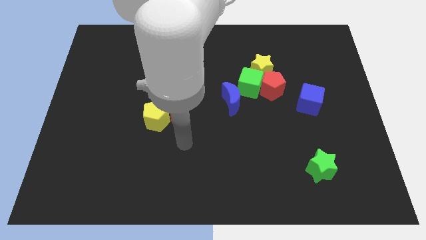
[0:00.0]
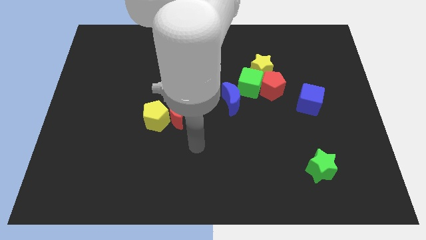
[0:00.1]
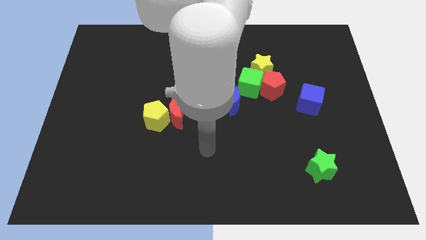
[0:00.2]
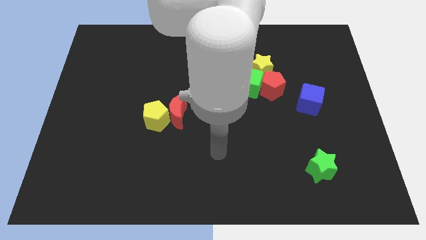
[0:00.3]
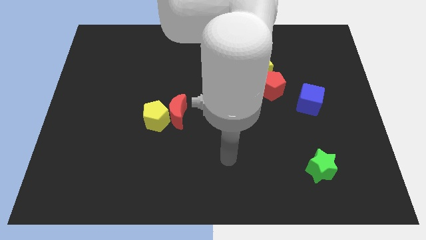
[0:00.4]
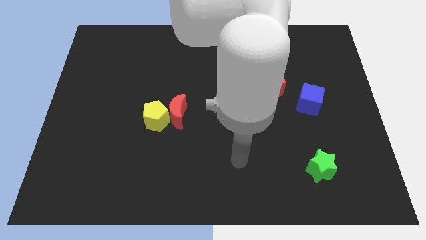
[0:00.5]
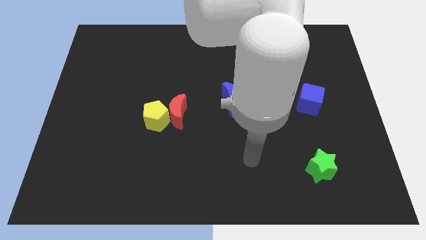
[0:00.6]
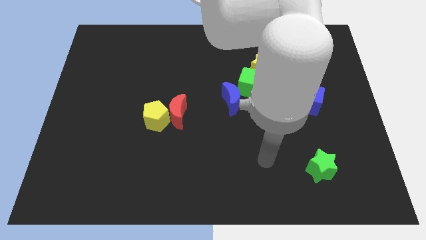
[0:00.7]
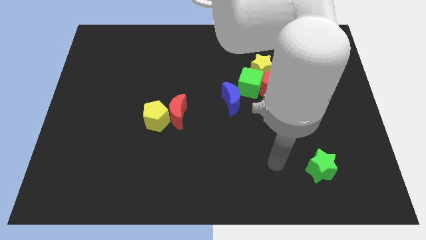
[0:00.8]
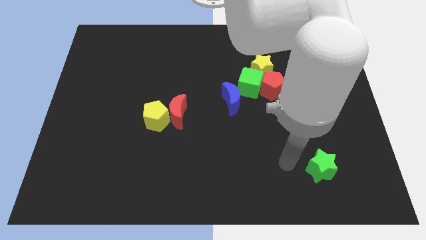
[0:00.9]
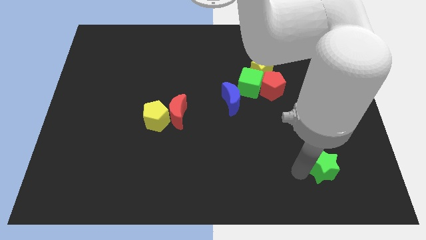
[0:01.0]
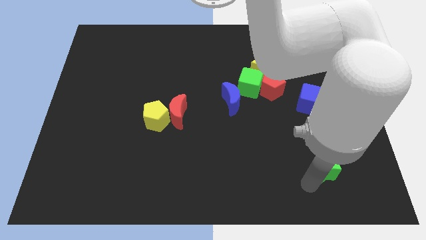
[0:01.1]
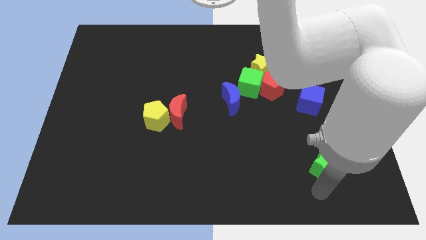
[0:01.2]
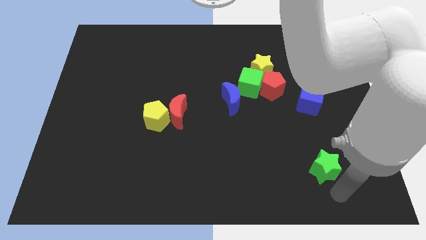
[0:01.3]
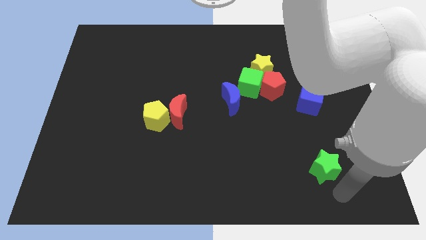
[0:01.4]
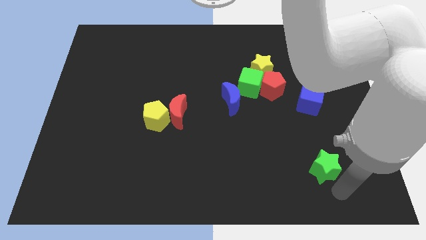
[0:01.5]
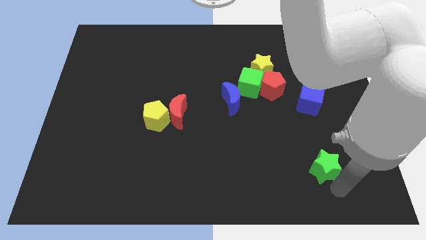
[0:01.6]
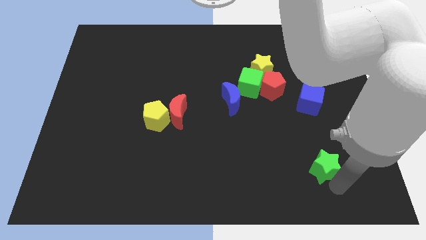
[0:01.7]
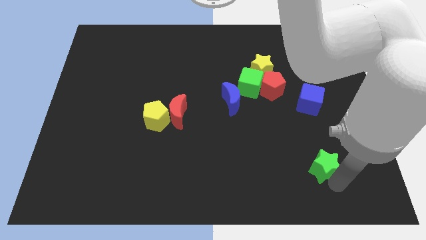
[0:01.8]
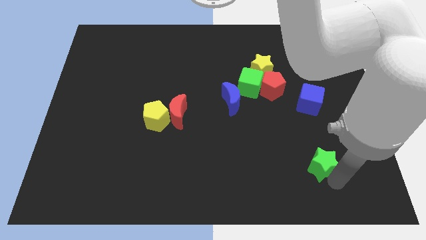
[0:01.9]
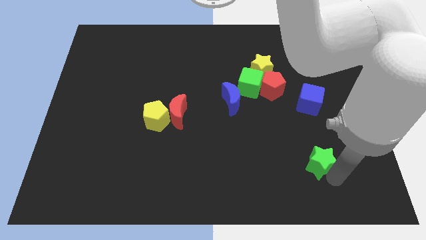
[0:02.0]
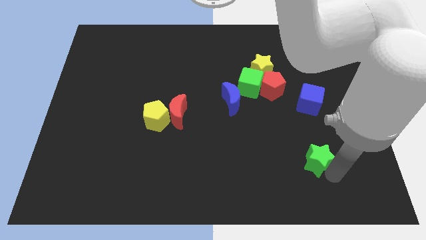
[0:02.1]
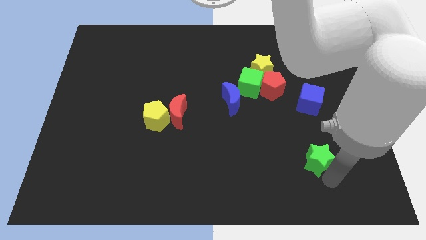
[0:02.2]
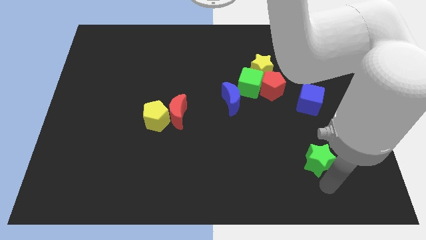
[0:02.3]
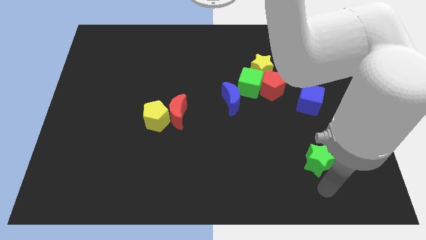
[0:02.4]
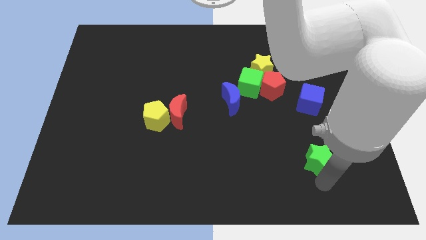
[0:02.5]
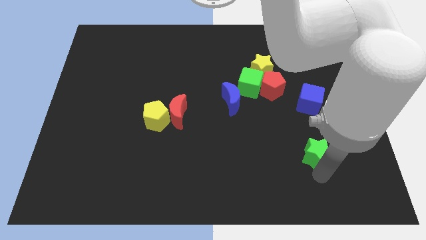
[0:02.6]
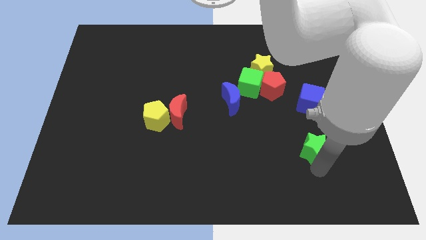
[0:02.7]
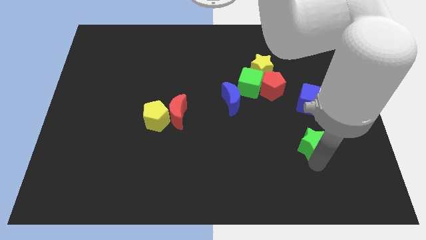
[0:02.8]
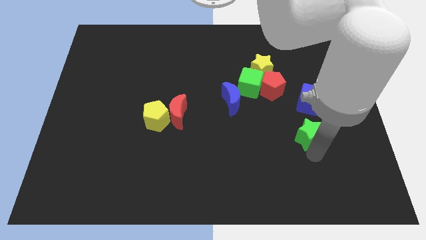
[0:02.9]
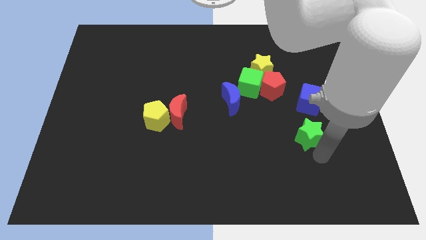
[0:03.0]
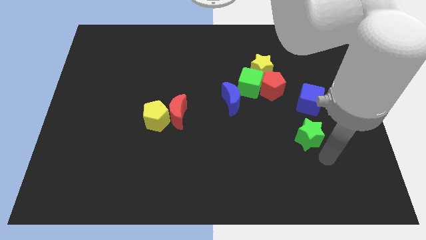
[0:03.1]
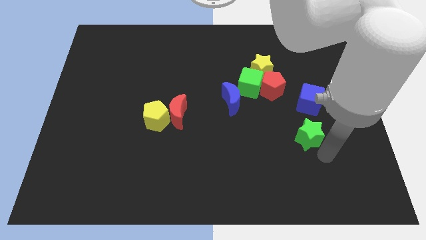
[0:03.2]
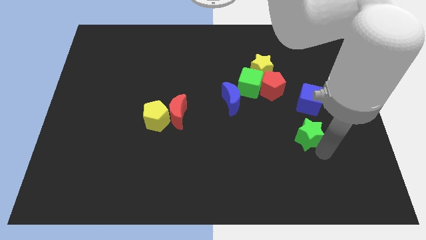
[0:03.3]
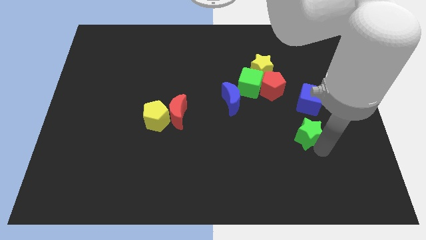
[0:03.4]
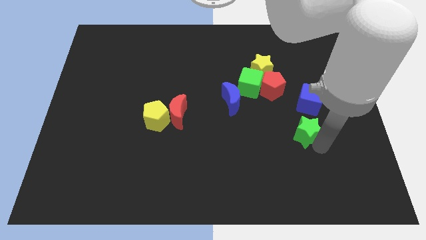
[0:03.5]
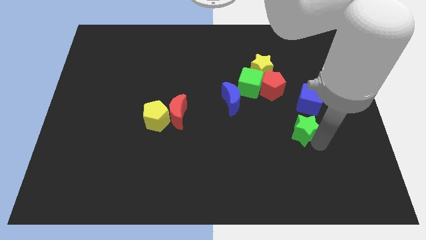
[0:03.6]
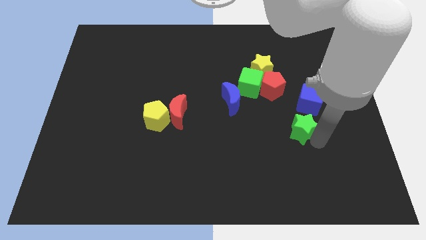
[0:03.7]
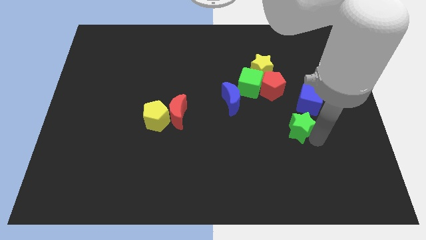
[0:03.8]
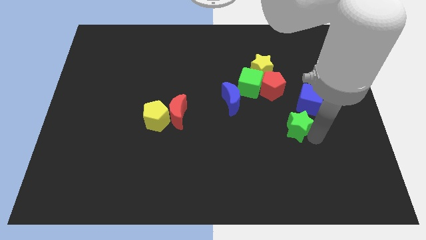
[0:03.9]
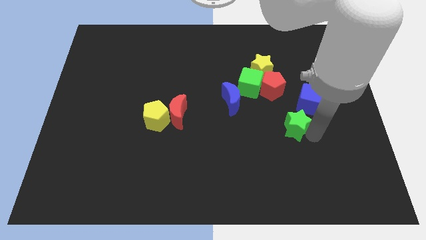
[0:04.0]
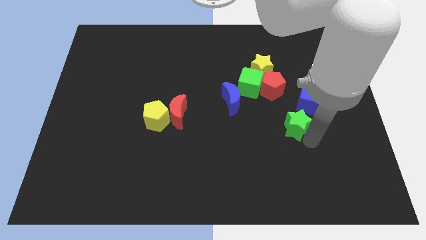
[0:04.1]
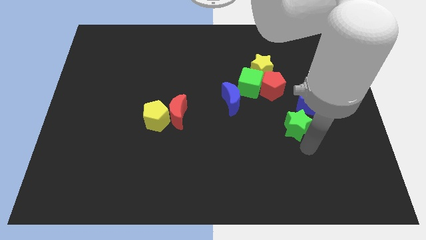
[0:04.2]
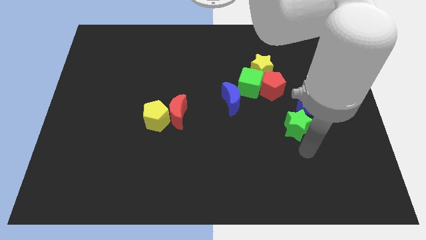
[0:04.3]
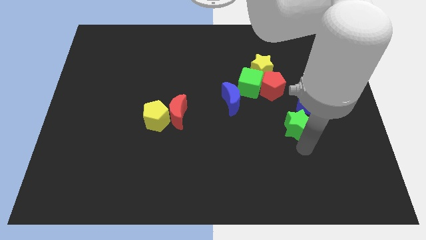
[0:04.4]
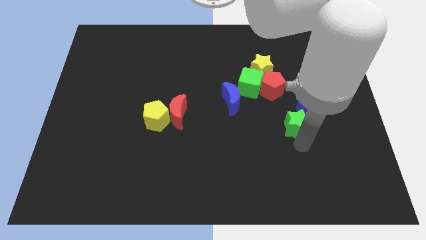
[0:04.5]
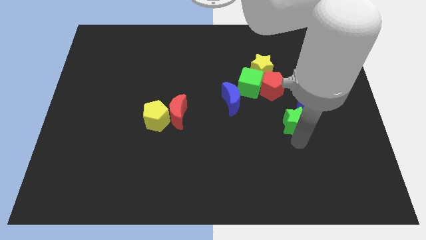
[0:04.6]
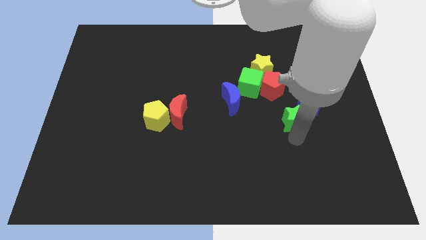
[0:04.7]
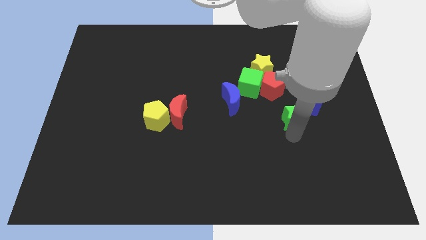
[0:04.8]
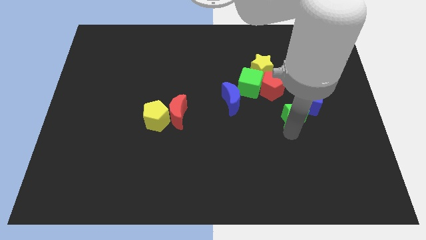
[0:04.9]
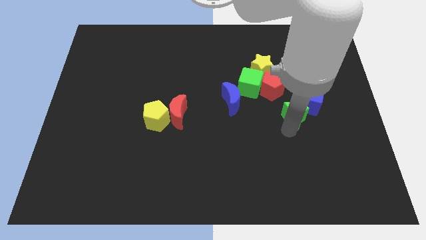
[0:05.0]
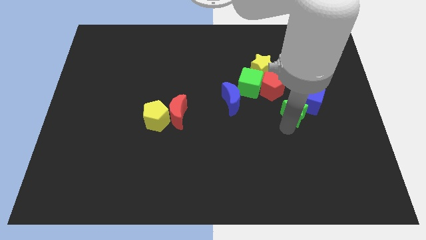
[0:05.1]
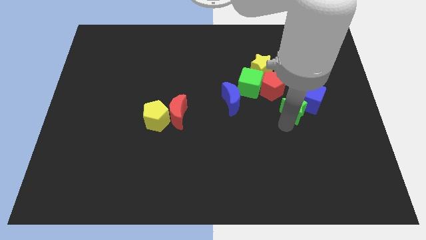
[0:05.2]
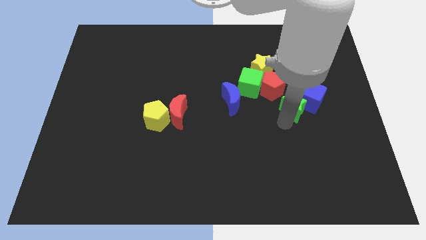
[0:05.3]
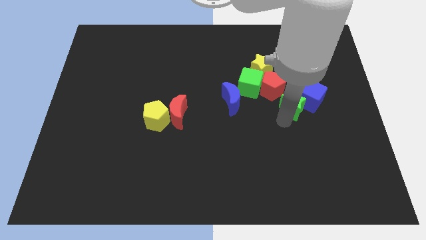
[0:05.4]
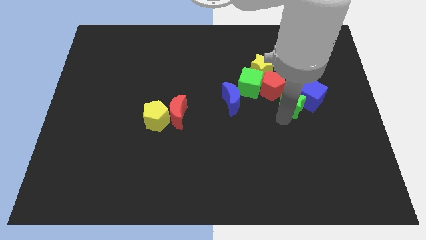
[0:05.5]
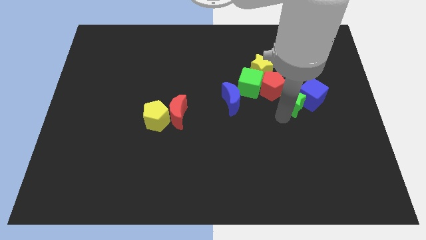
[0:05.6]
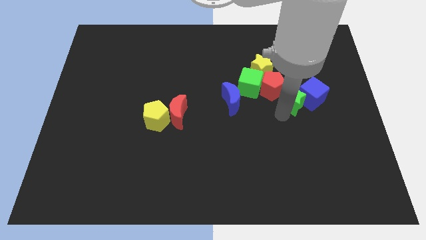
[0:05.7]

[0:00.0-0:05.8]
slide the green star to the red pentagon

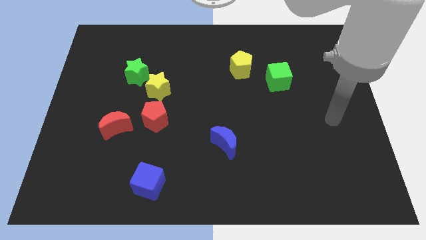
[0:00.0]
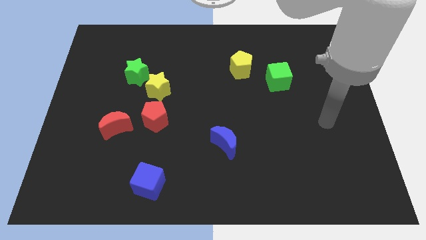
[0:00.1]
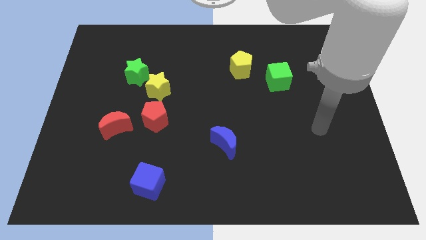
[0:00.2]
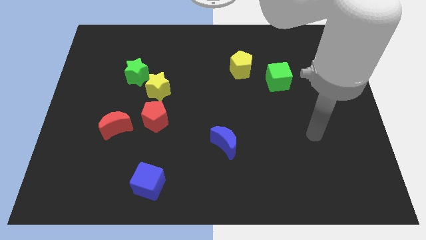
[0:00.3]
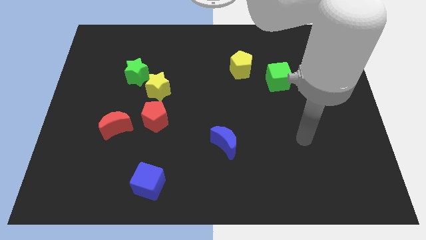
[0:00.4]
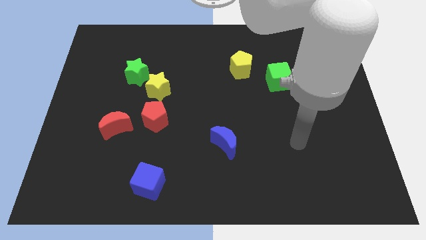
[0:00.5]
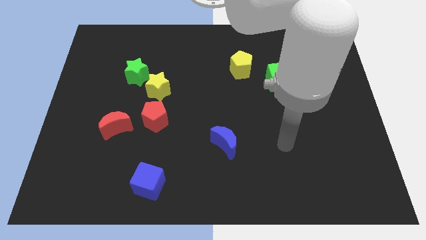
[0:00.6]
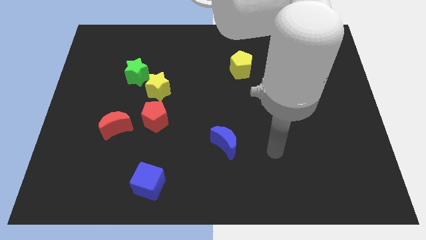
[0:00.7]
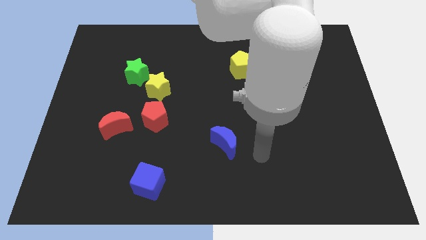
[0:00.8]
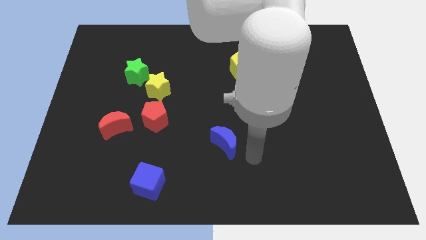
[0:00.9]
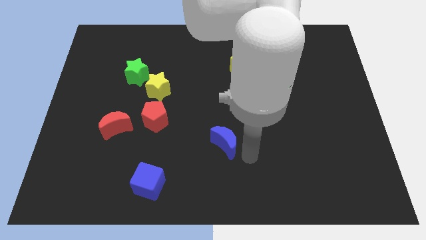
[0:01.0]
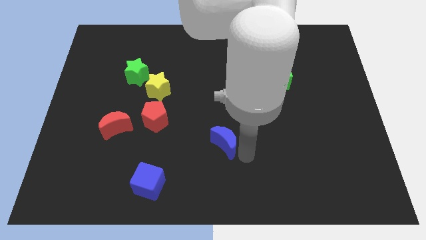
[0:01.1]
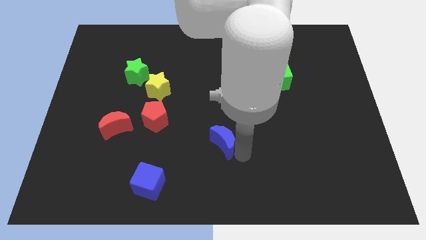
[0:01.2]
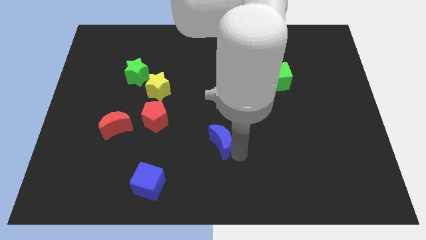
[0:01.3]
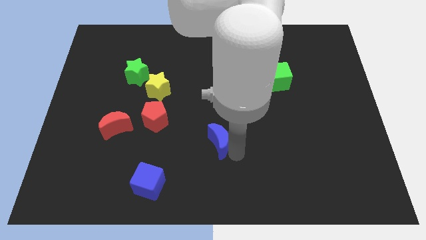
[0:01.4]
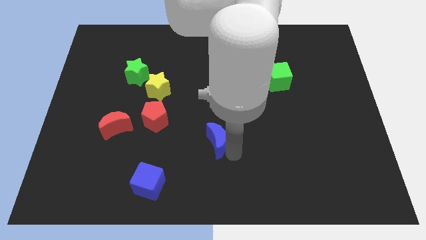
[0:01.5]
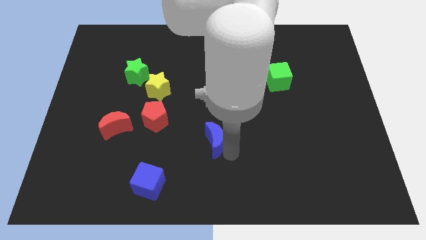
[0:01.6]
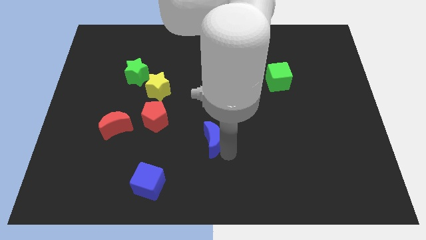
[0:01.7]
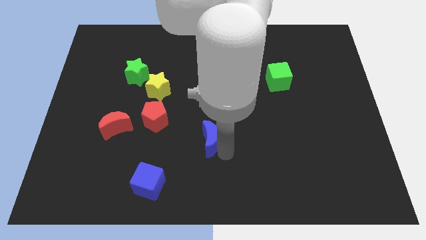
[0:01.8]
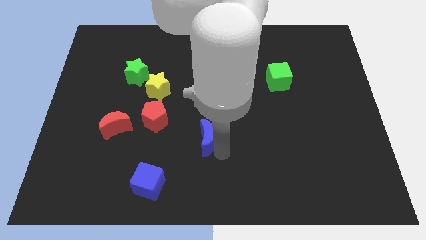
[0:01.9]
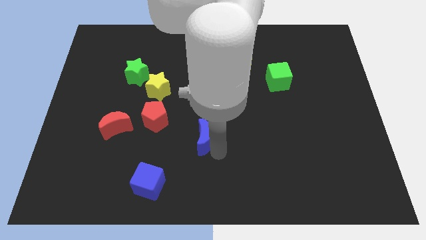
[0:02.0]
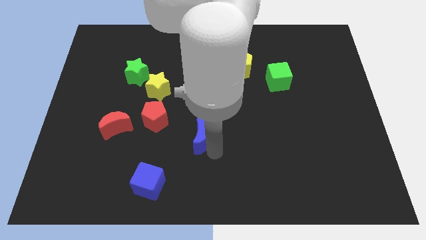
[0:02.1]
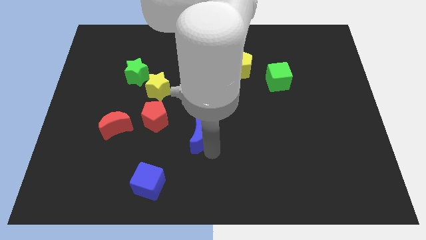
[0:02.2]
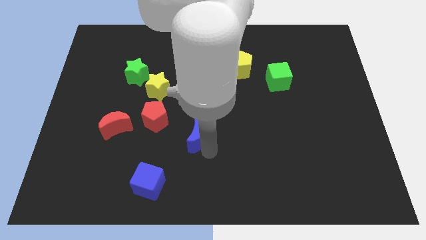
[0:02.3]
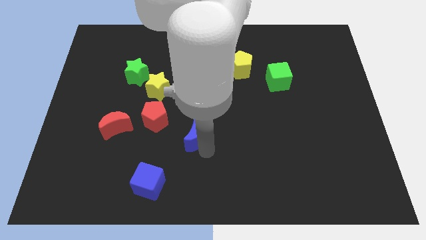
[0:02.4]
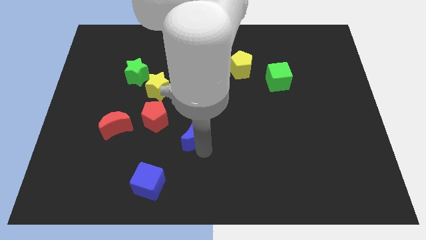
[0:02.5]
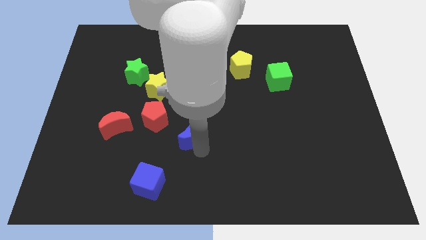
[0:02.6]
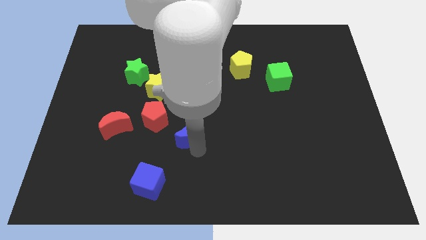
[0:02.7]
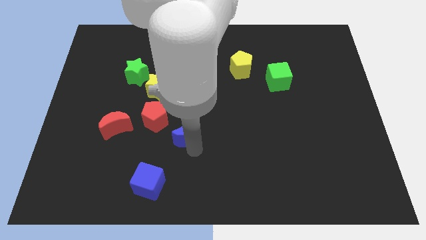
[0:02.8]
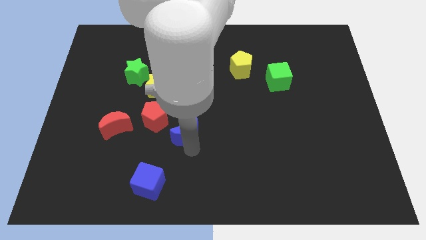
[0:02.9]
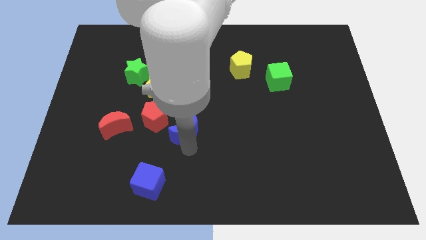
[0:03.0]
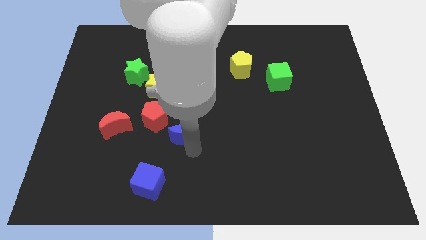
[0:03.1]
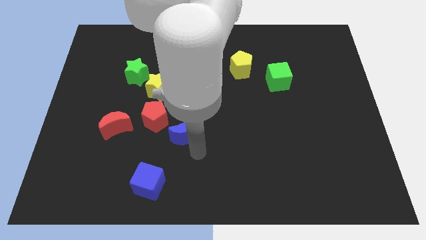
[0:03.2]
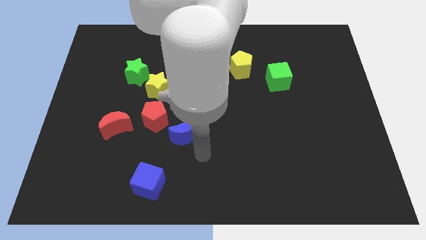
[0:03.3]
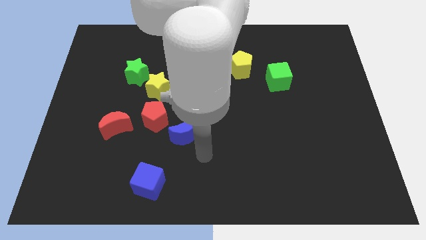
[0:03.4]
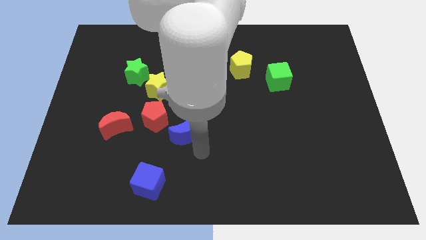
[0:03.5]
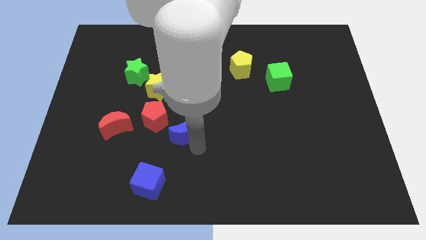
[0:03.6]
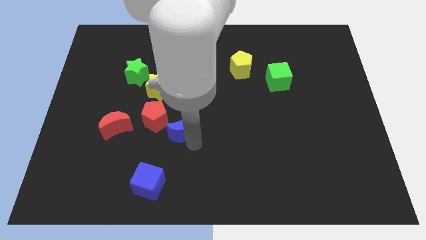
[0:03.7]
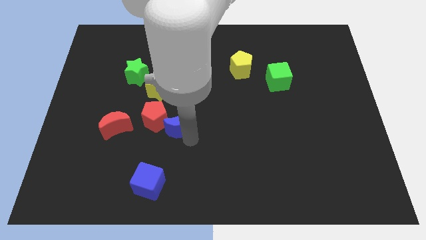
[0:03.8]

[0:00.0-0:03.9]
push the blue moon close to the red pentagon
